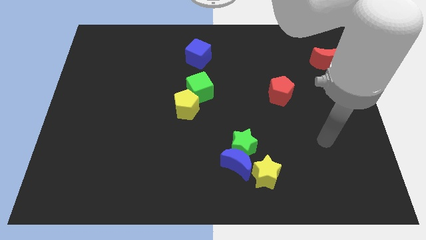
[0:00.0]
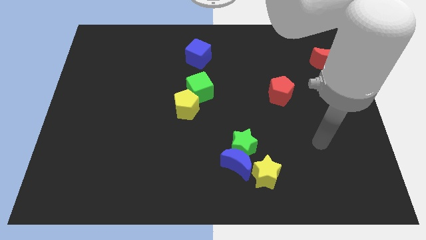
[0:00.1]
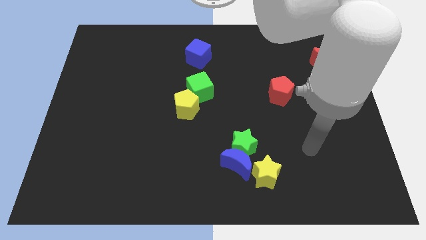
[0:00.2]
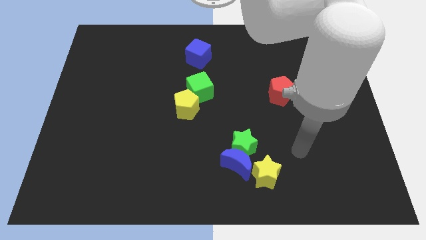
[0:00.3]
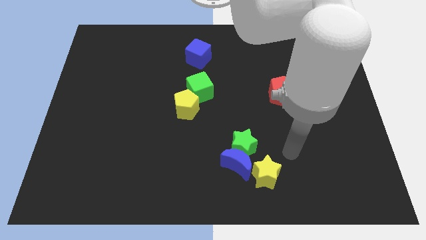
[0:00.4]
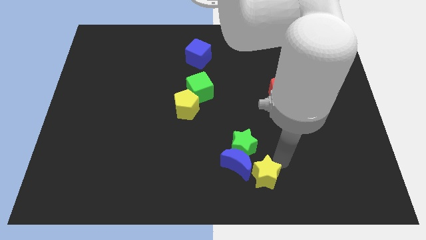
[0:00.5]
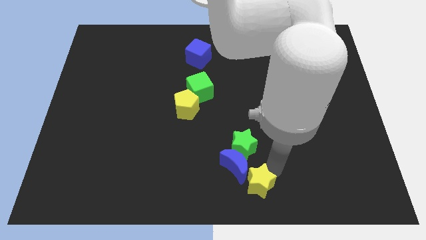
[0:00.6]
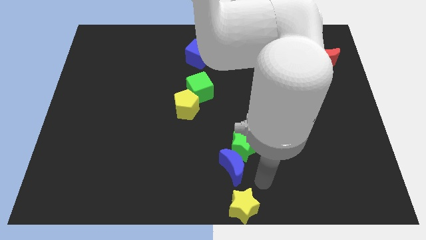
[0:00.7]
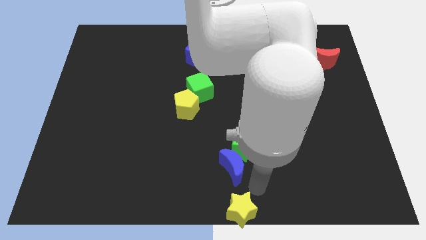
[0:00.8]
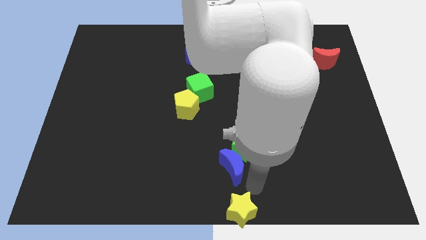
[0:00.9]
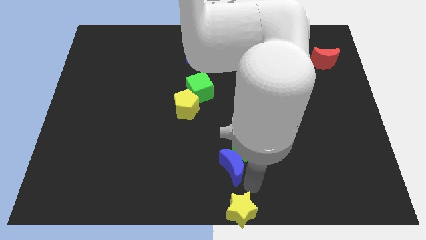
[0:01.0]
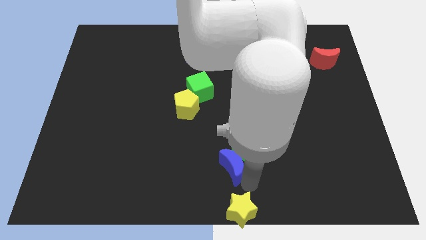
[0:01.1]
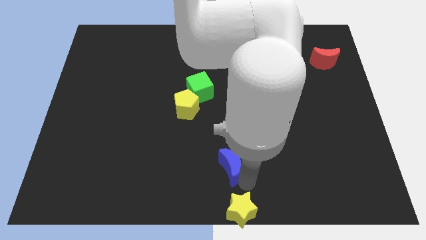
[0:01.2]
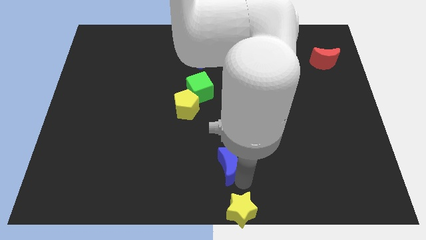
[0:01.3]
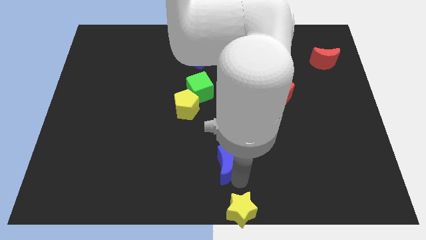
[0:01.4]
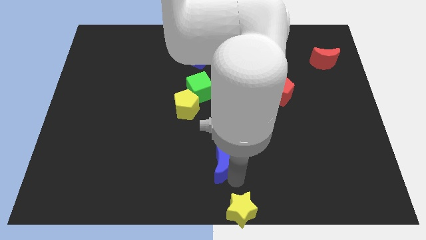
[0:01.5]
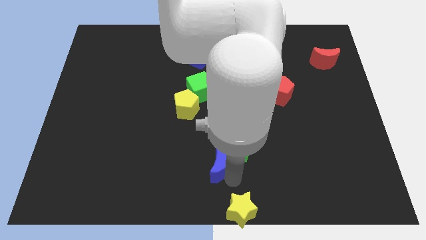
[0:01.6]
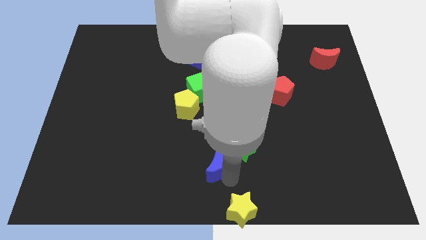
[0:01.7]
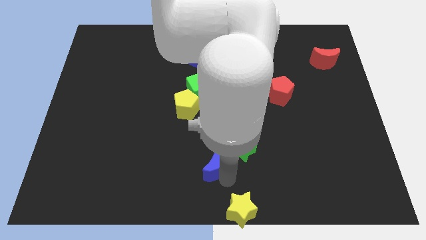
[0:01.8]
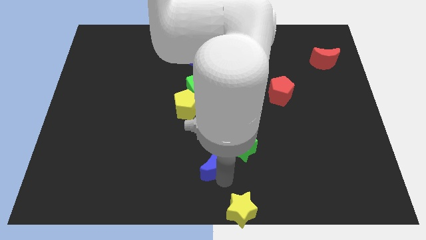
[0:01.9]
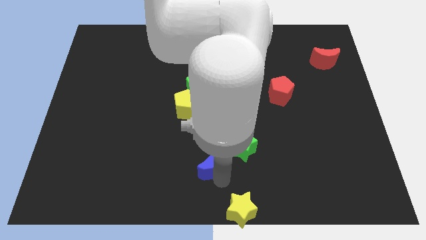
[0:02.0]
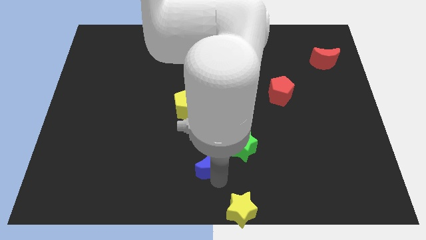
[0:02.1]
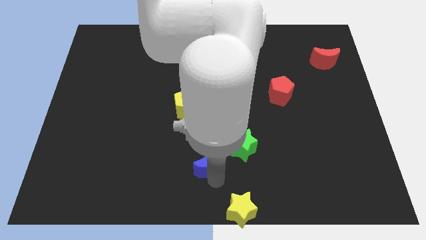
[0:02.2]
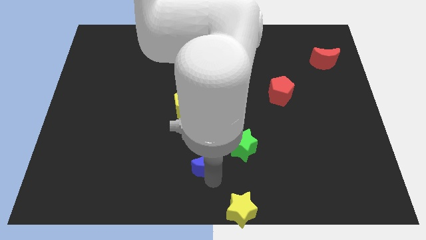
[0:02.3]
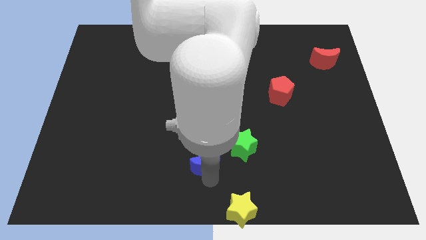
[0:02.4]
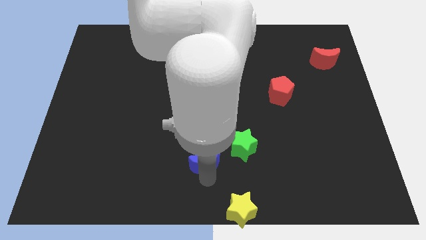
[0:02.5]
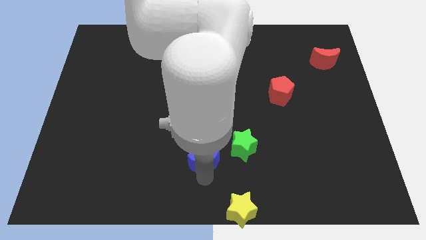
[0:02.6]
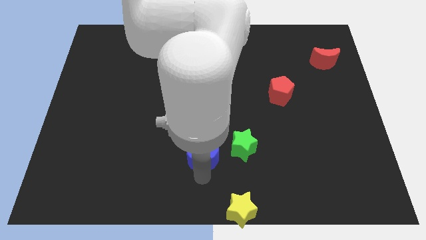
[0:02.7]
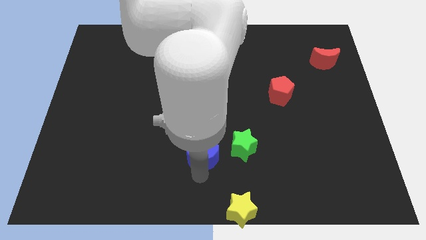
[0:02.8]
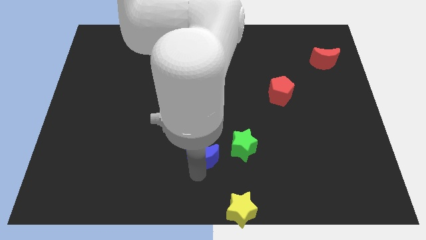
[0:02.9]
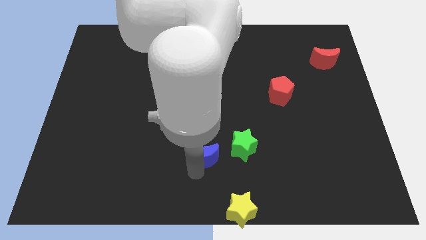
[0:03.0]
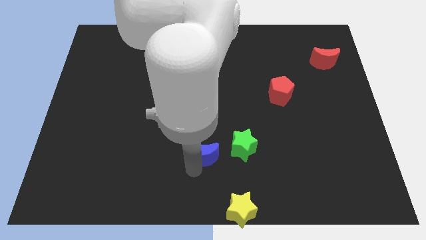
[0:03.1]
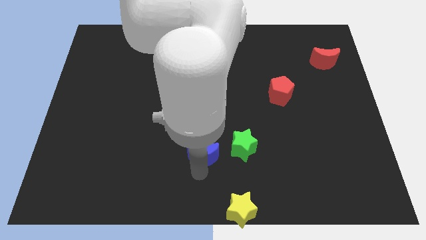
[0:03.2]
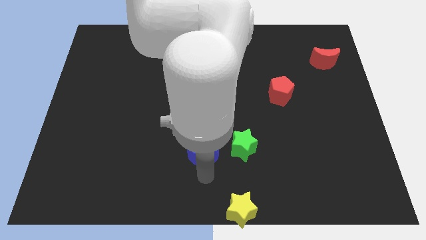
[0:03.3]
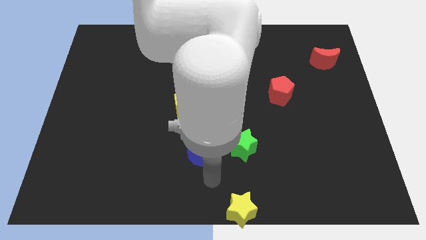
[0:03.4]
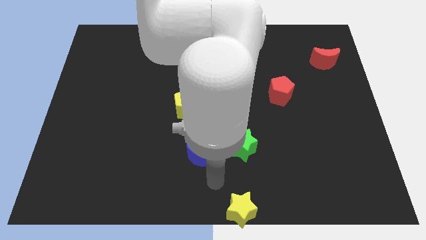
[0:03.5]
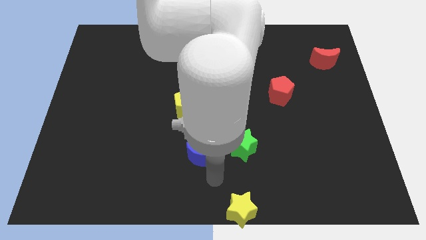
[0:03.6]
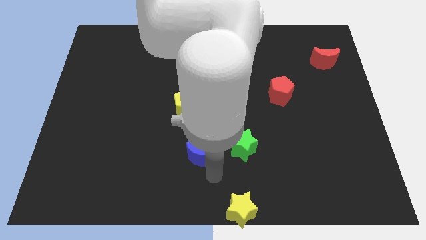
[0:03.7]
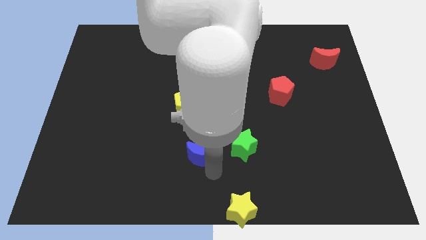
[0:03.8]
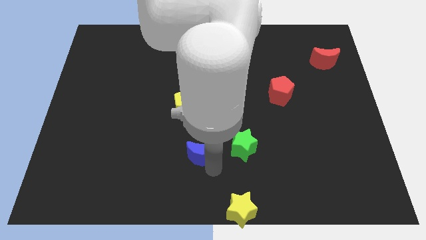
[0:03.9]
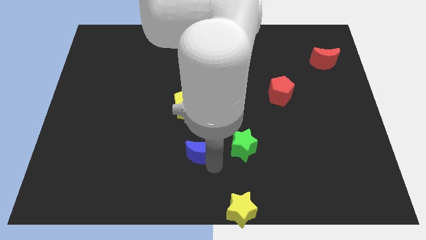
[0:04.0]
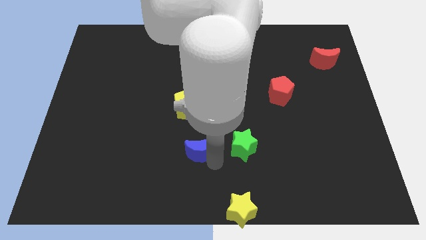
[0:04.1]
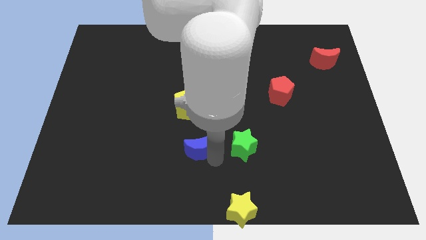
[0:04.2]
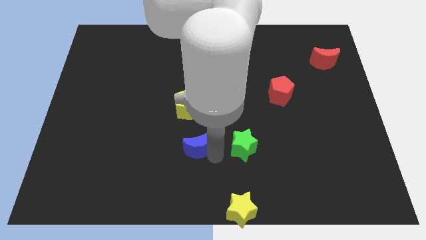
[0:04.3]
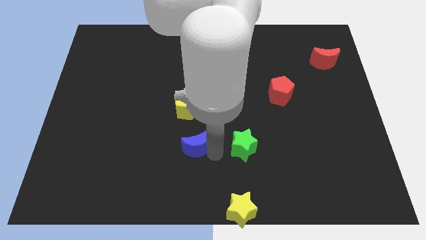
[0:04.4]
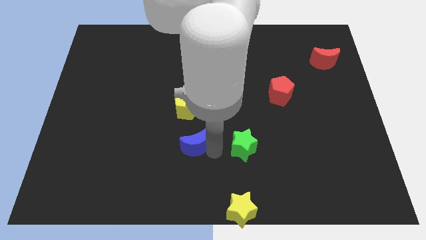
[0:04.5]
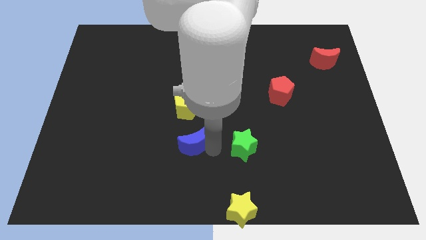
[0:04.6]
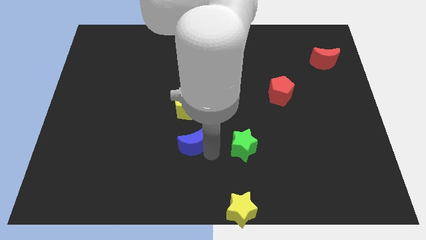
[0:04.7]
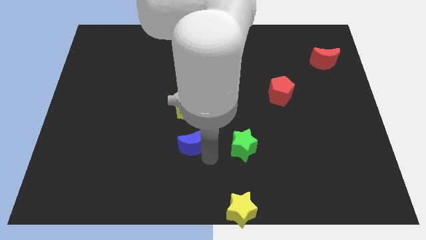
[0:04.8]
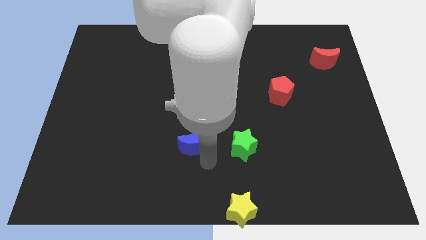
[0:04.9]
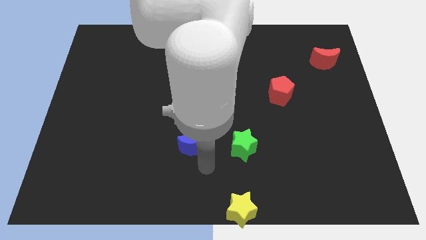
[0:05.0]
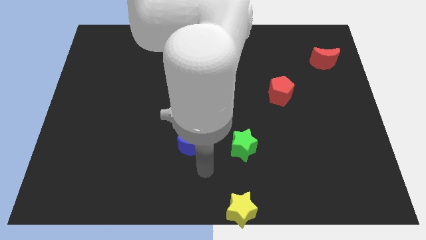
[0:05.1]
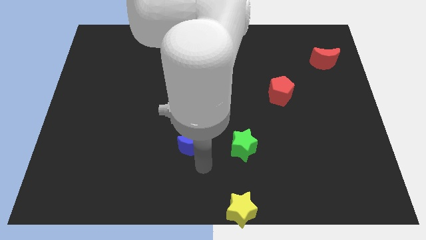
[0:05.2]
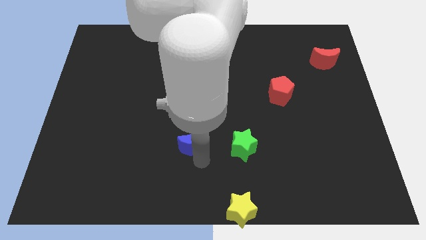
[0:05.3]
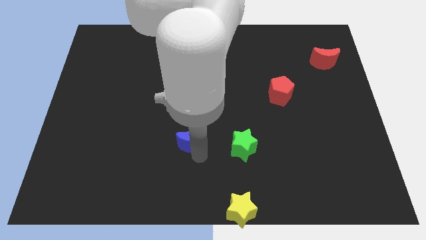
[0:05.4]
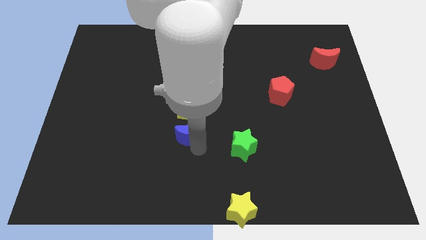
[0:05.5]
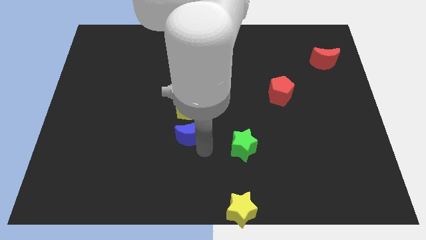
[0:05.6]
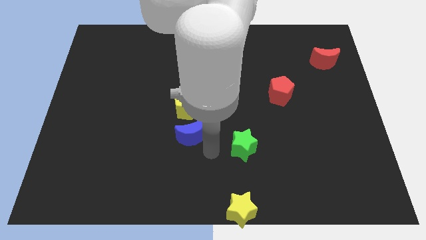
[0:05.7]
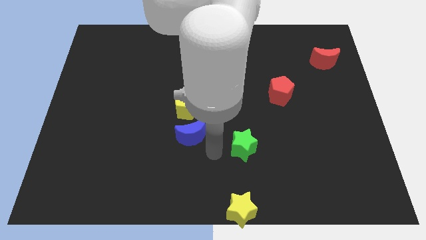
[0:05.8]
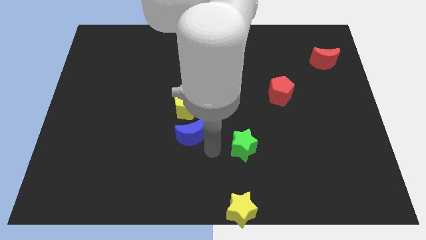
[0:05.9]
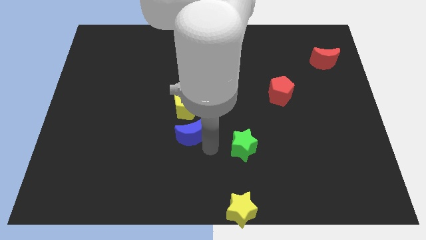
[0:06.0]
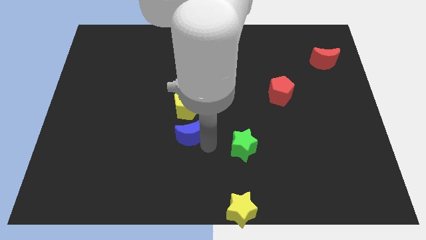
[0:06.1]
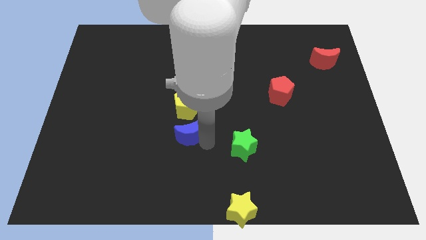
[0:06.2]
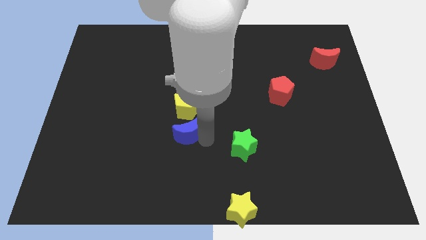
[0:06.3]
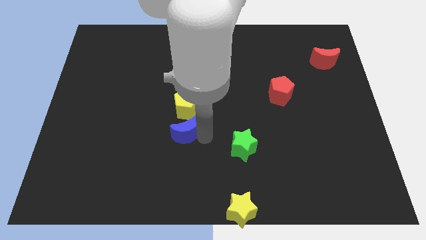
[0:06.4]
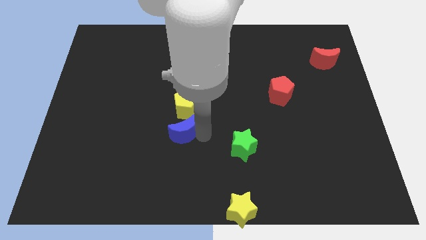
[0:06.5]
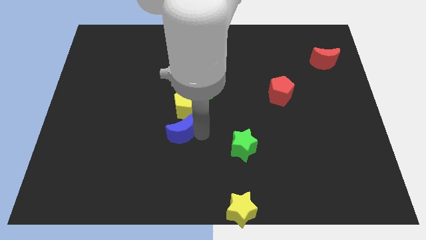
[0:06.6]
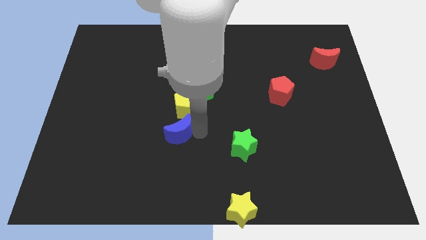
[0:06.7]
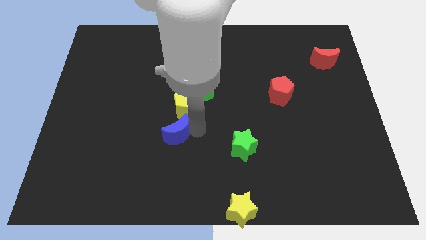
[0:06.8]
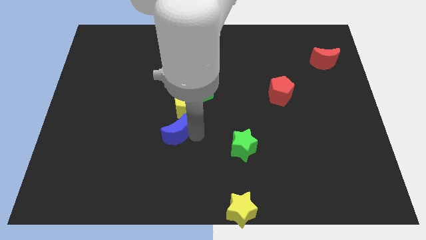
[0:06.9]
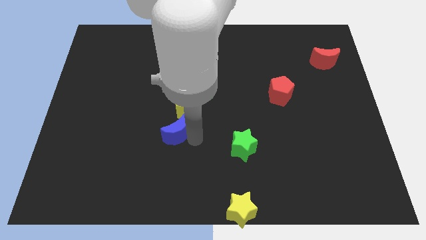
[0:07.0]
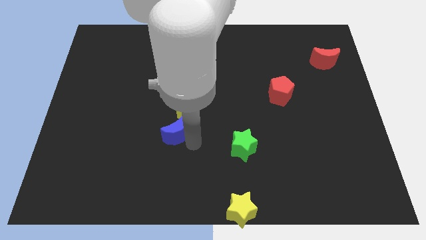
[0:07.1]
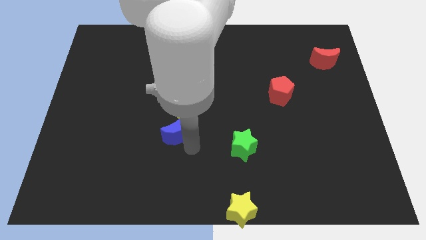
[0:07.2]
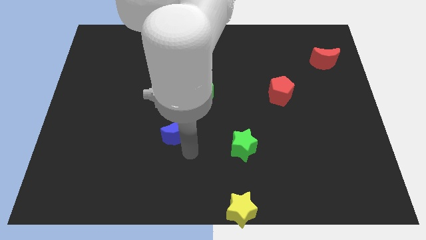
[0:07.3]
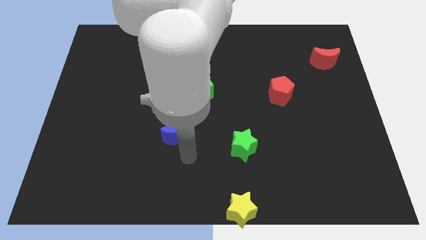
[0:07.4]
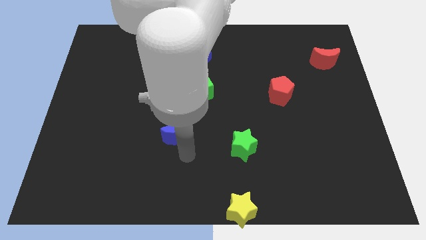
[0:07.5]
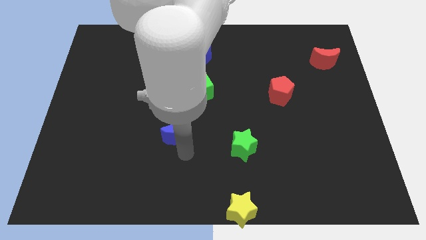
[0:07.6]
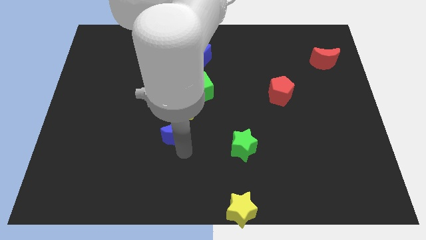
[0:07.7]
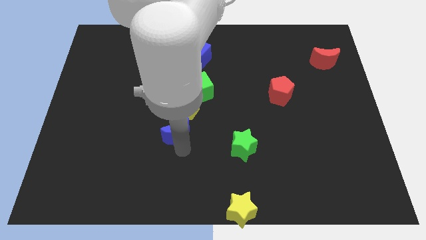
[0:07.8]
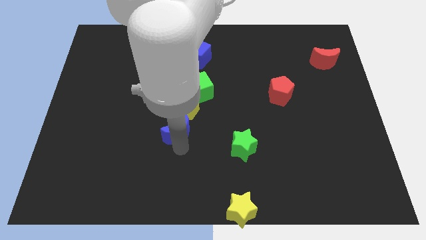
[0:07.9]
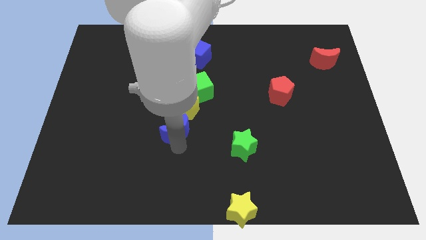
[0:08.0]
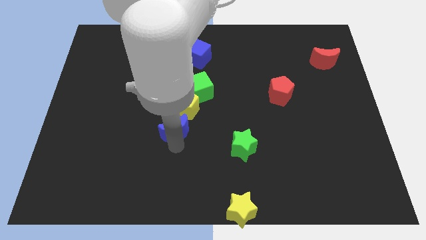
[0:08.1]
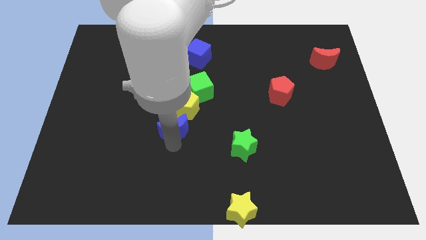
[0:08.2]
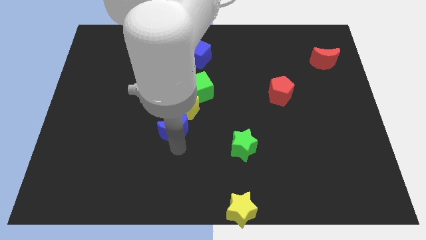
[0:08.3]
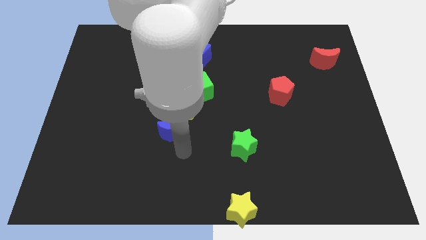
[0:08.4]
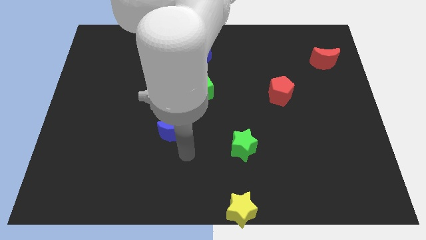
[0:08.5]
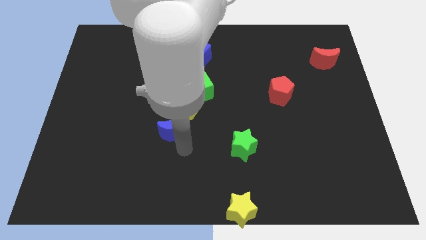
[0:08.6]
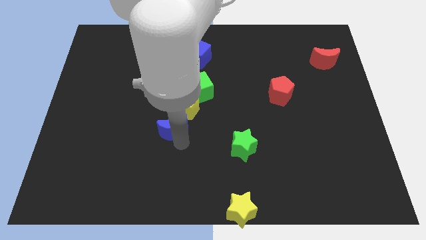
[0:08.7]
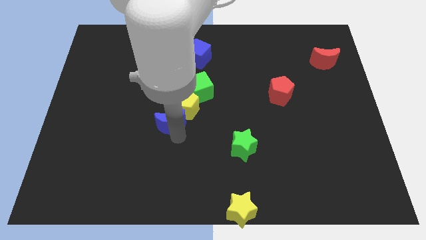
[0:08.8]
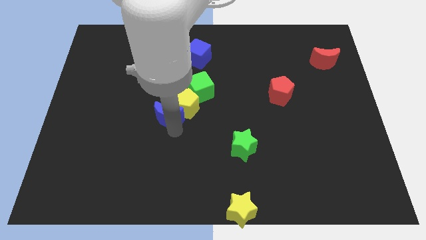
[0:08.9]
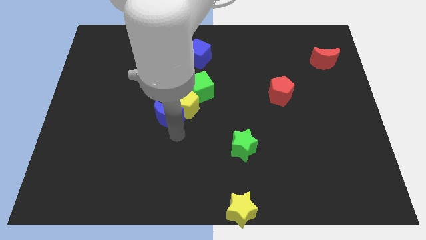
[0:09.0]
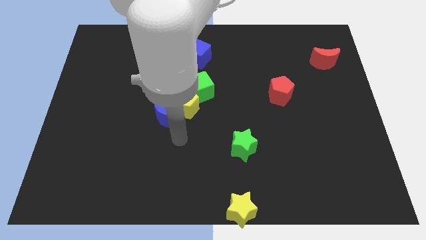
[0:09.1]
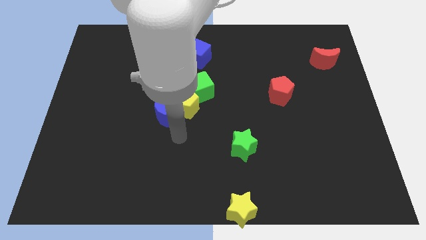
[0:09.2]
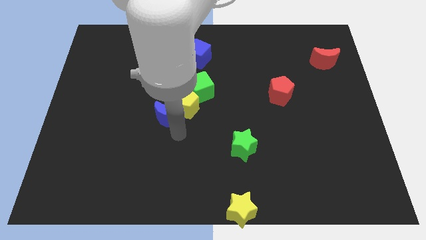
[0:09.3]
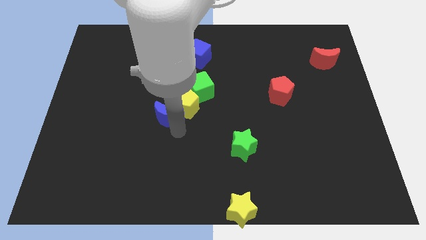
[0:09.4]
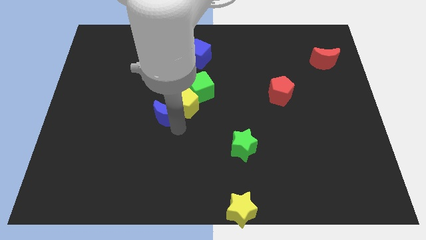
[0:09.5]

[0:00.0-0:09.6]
push the blue moon upwards and left
